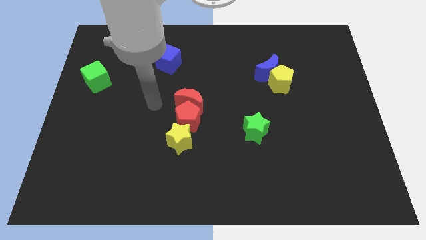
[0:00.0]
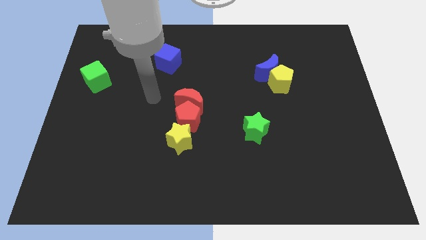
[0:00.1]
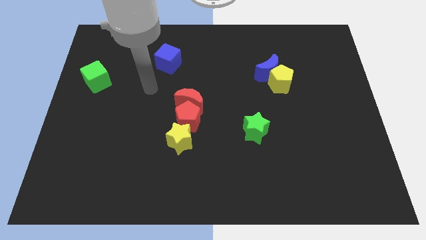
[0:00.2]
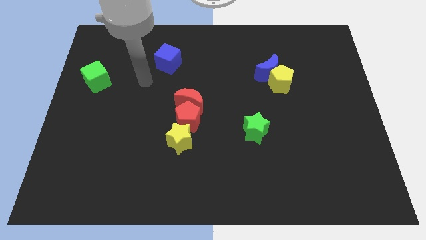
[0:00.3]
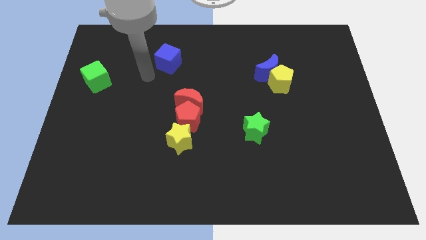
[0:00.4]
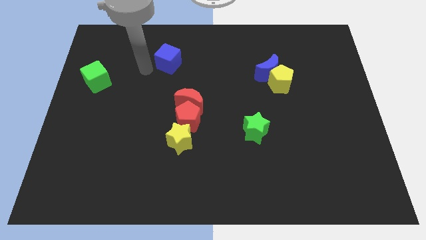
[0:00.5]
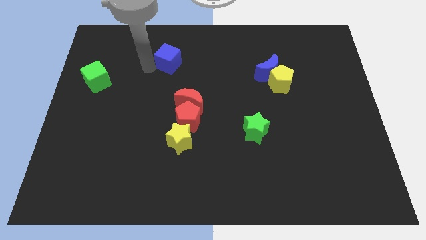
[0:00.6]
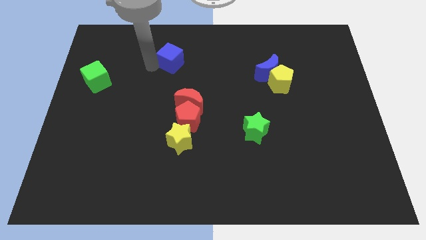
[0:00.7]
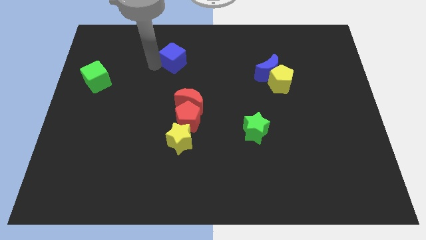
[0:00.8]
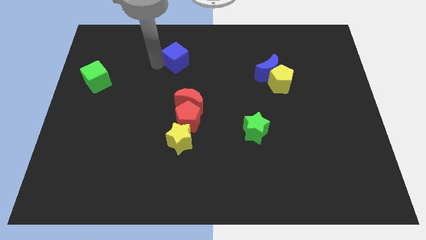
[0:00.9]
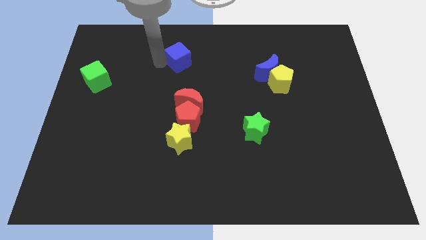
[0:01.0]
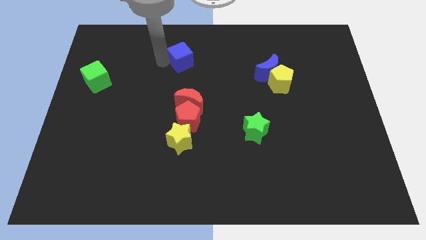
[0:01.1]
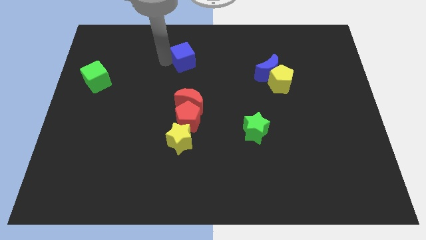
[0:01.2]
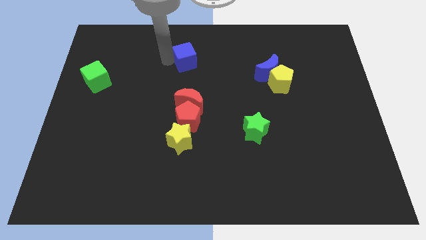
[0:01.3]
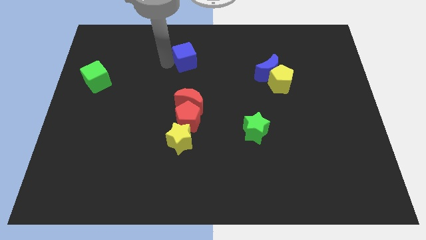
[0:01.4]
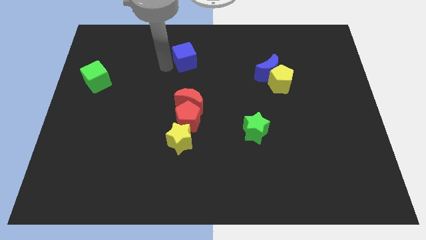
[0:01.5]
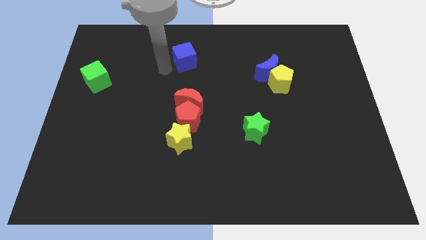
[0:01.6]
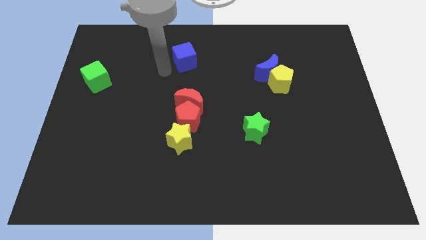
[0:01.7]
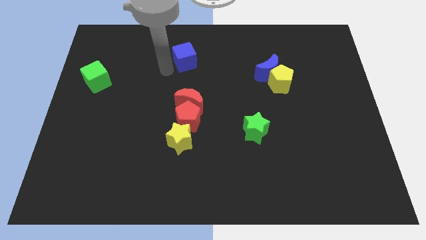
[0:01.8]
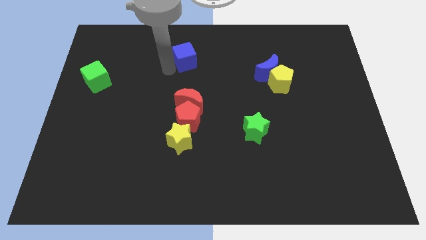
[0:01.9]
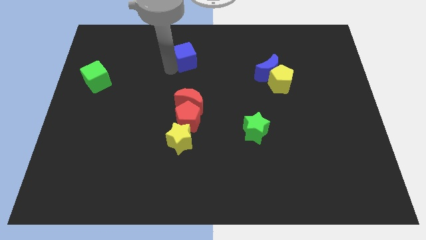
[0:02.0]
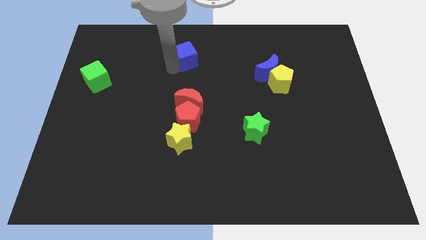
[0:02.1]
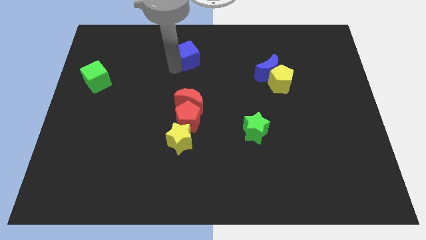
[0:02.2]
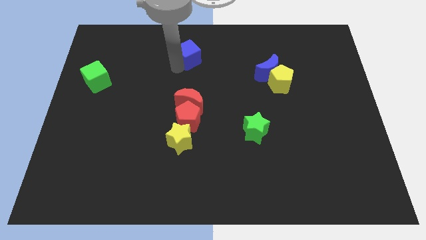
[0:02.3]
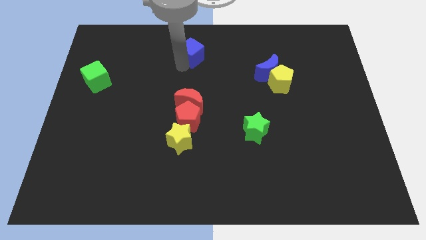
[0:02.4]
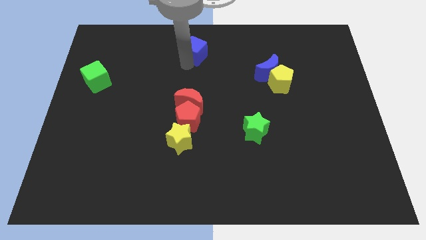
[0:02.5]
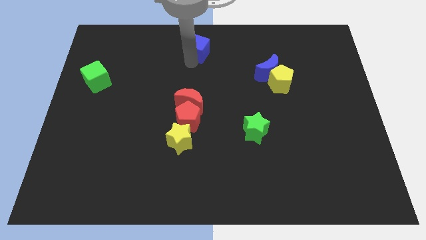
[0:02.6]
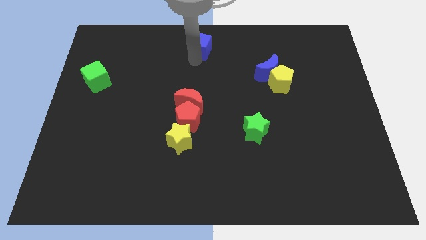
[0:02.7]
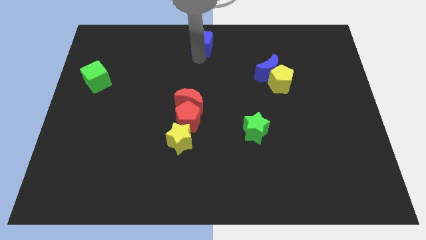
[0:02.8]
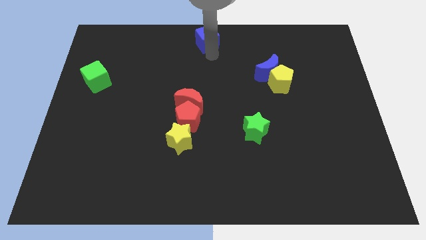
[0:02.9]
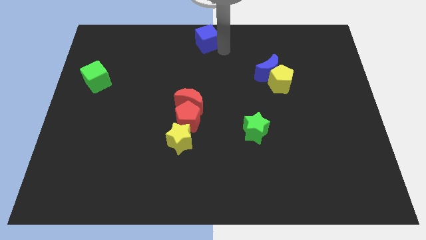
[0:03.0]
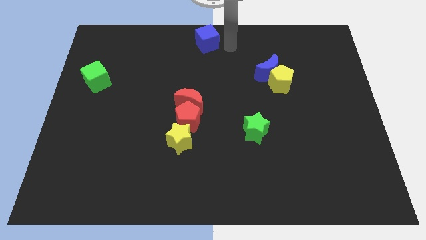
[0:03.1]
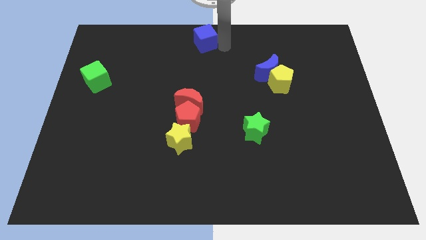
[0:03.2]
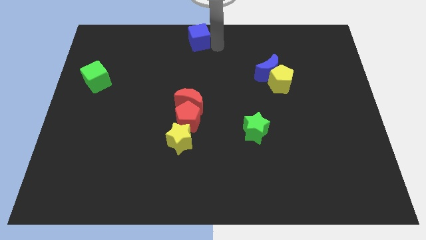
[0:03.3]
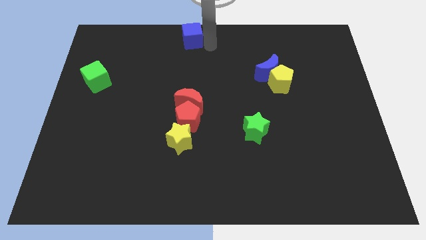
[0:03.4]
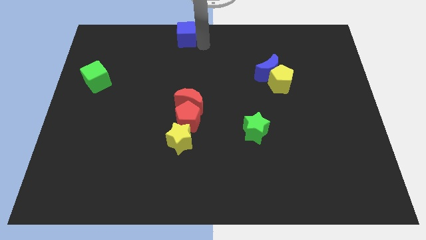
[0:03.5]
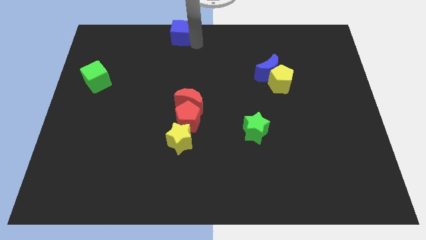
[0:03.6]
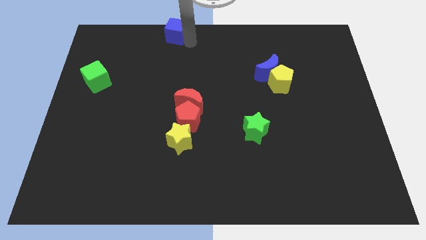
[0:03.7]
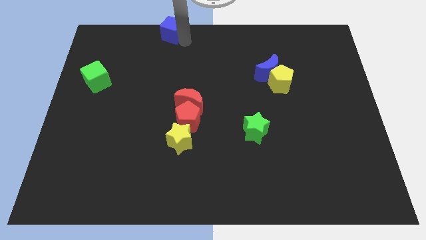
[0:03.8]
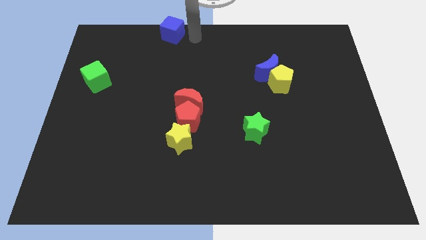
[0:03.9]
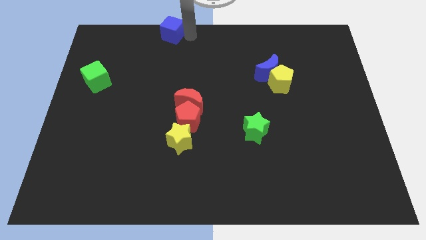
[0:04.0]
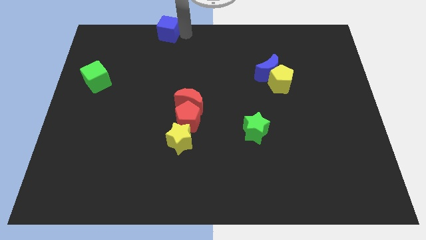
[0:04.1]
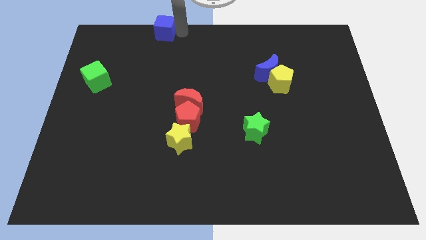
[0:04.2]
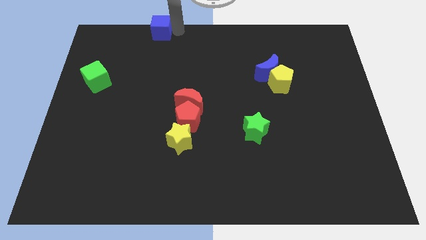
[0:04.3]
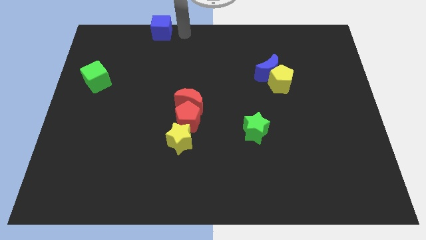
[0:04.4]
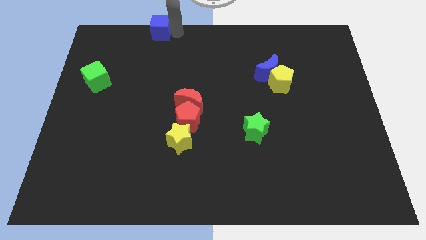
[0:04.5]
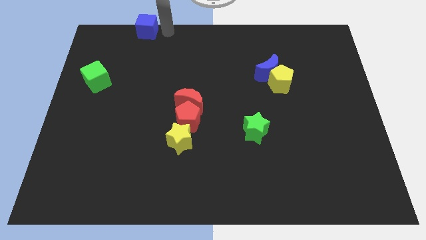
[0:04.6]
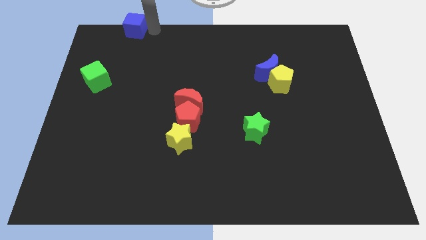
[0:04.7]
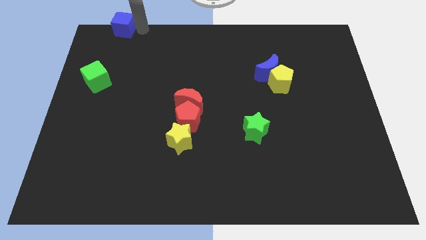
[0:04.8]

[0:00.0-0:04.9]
slide the blue cube to the top left corner
